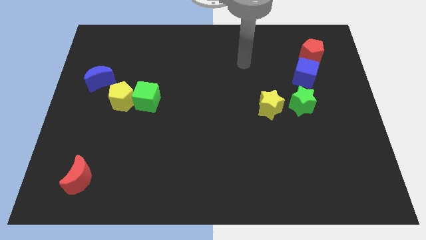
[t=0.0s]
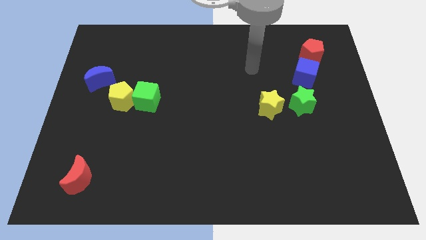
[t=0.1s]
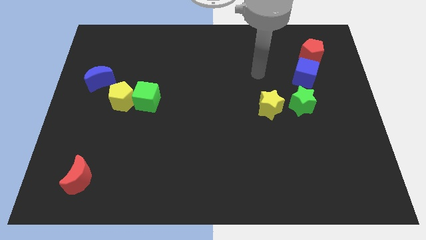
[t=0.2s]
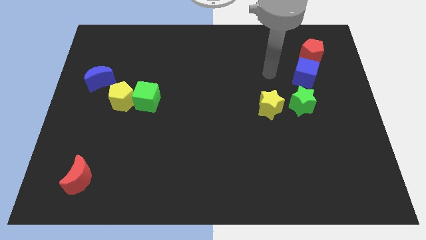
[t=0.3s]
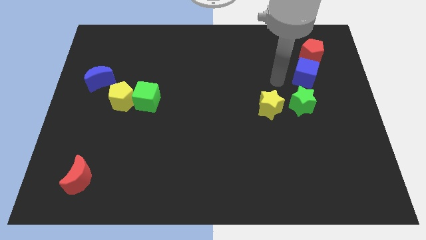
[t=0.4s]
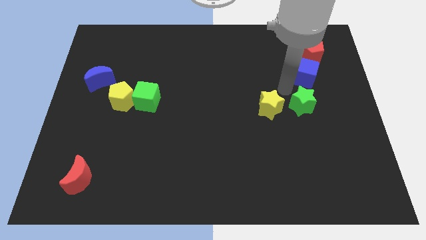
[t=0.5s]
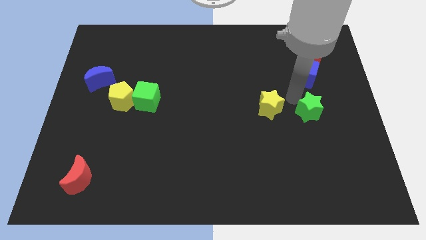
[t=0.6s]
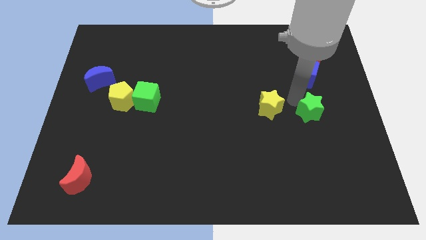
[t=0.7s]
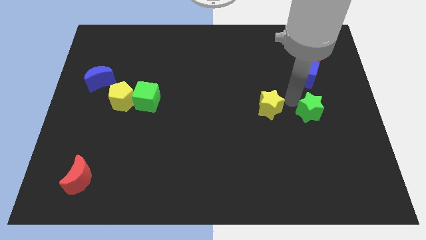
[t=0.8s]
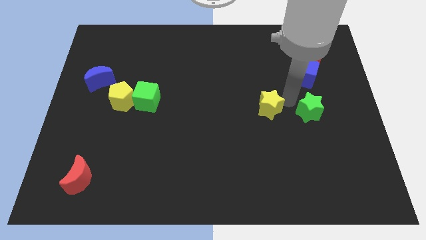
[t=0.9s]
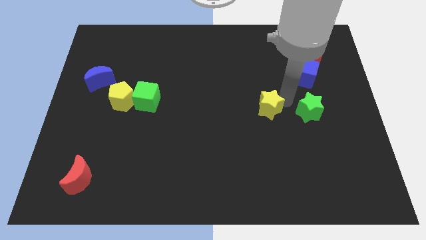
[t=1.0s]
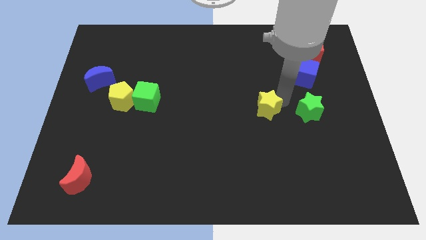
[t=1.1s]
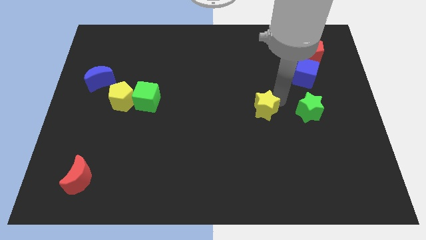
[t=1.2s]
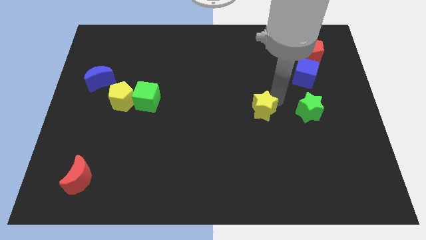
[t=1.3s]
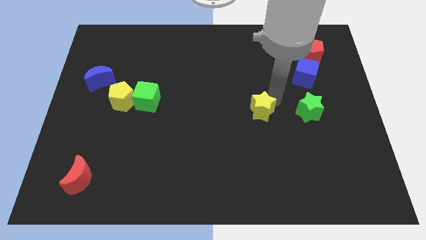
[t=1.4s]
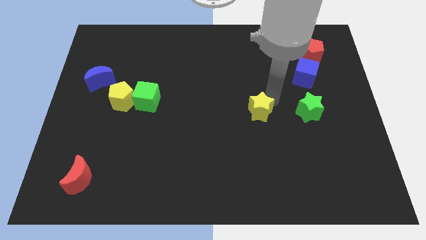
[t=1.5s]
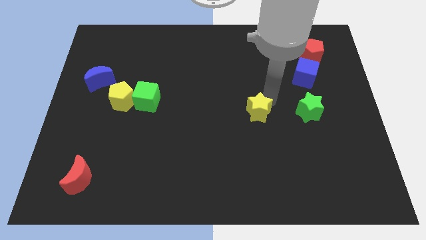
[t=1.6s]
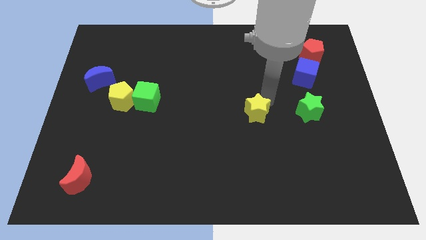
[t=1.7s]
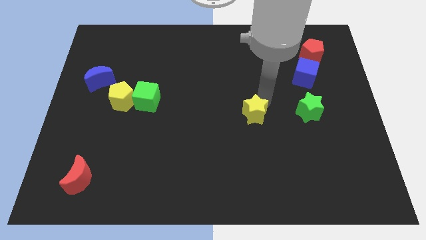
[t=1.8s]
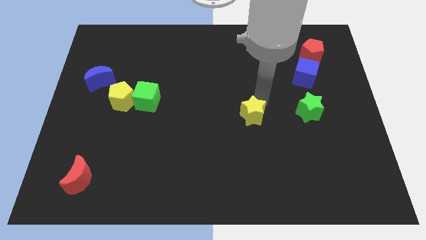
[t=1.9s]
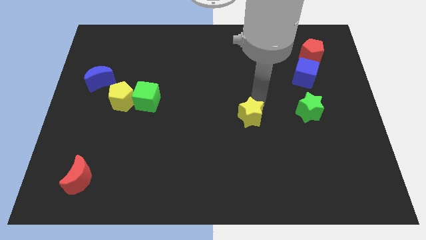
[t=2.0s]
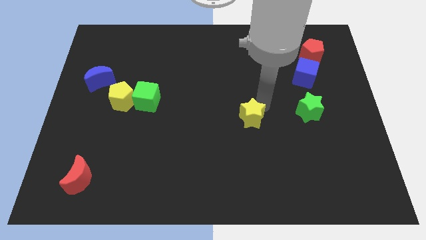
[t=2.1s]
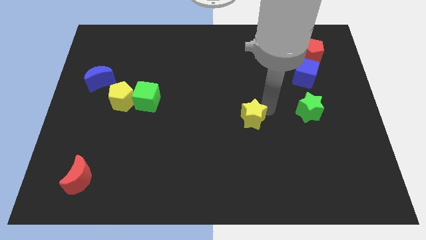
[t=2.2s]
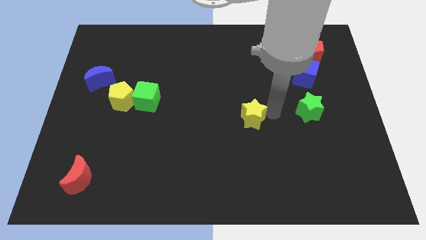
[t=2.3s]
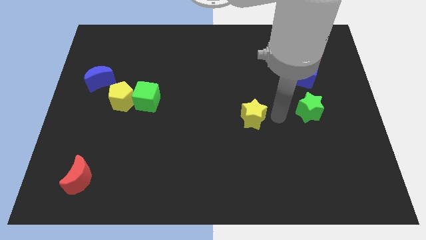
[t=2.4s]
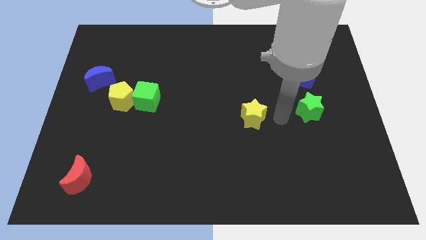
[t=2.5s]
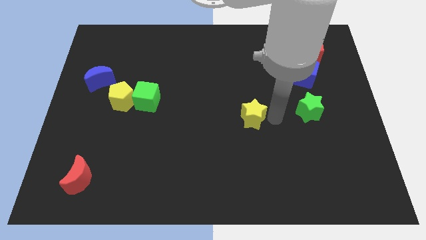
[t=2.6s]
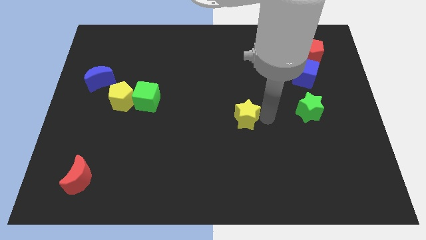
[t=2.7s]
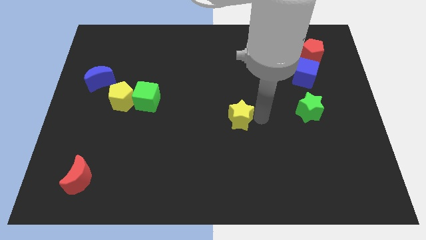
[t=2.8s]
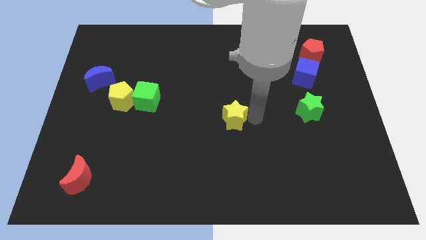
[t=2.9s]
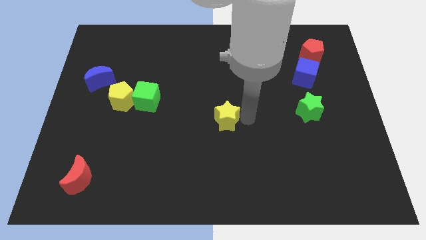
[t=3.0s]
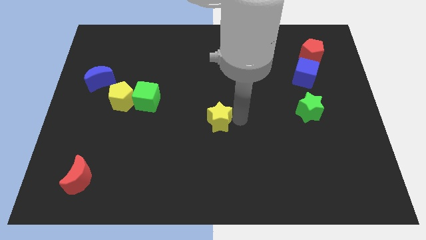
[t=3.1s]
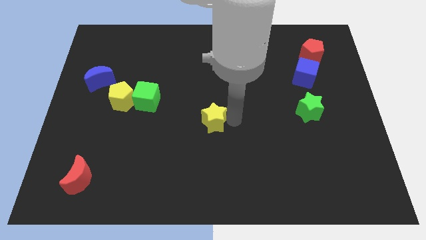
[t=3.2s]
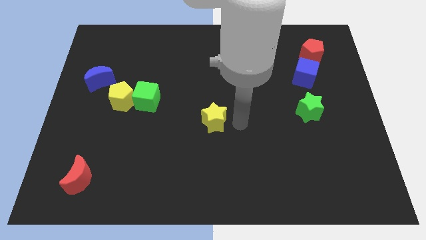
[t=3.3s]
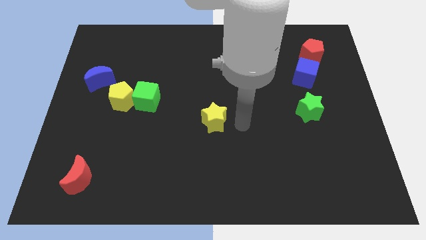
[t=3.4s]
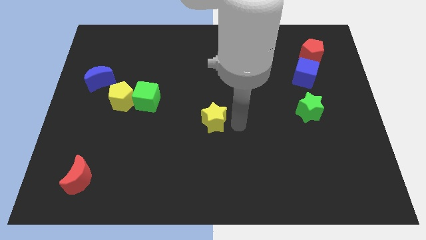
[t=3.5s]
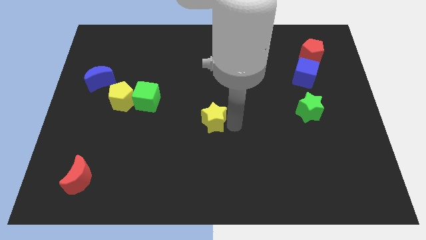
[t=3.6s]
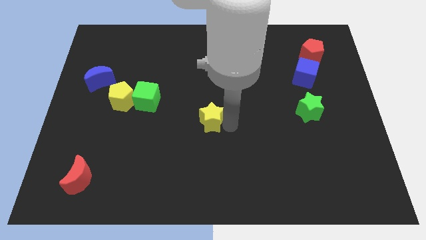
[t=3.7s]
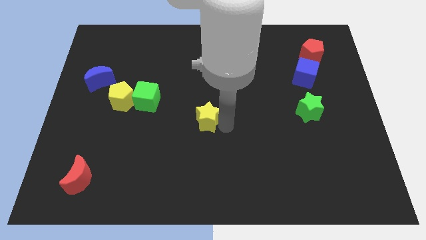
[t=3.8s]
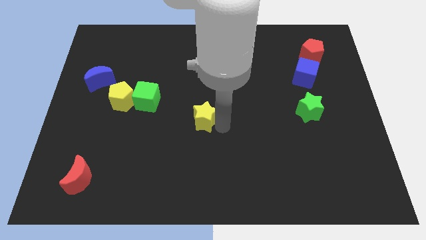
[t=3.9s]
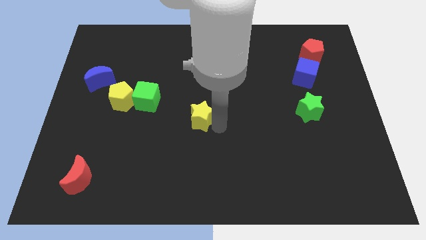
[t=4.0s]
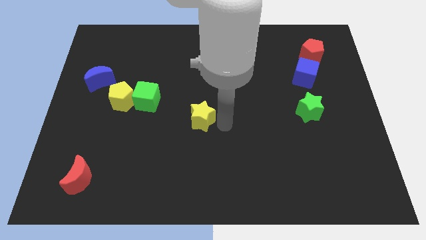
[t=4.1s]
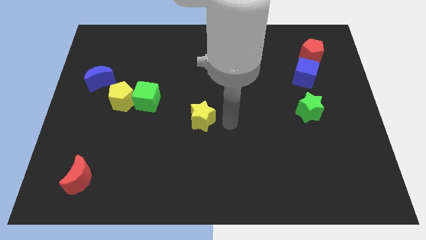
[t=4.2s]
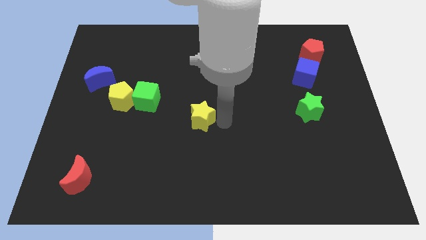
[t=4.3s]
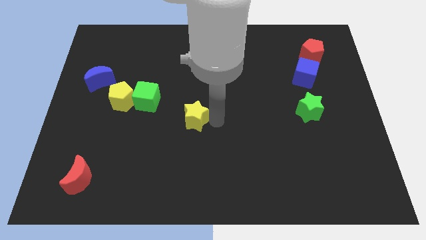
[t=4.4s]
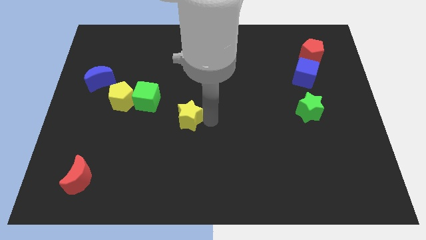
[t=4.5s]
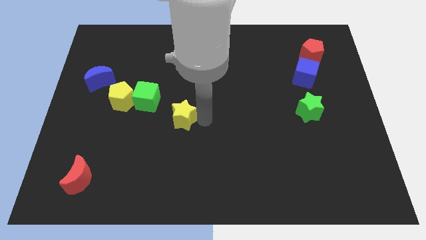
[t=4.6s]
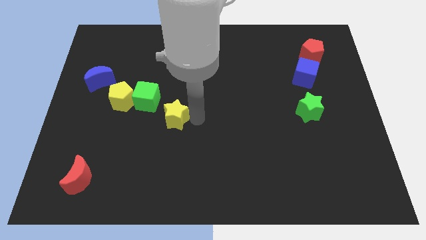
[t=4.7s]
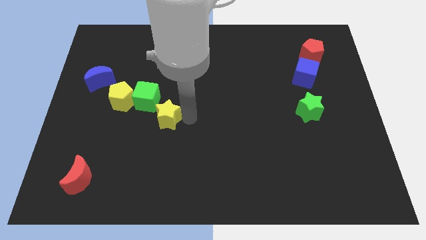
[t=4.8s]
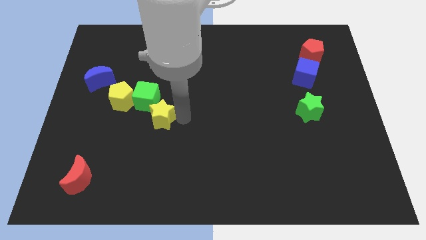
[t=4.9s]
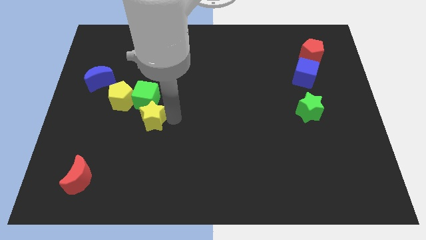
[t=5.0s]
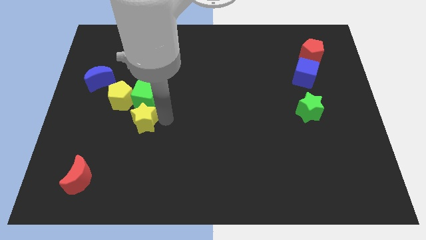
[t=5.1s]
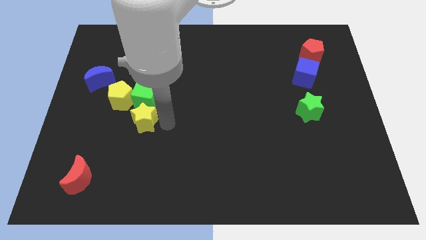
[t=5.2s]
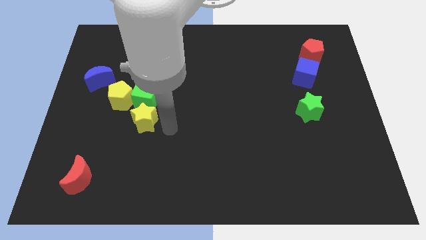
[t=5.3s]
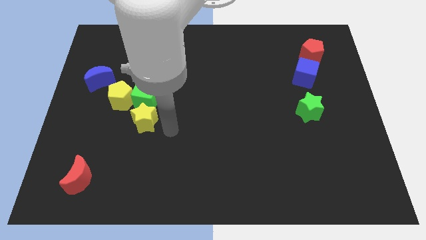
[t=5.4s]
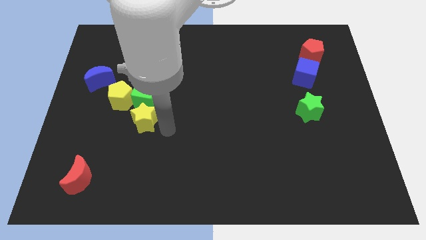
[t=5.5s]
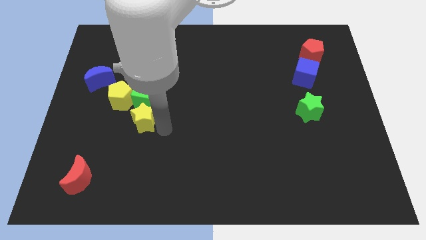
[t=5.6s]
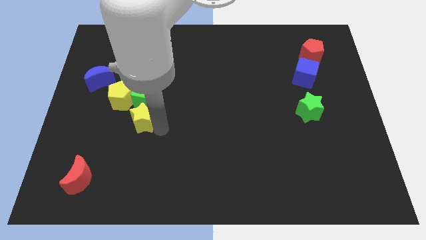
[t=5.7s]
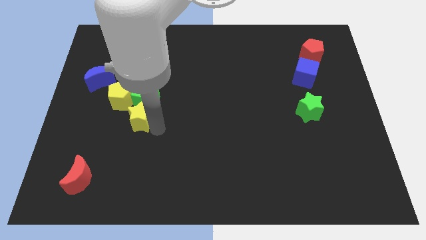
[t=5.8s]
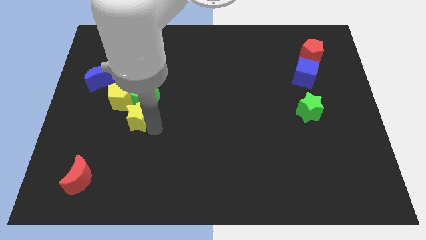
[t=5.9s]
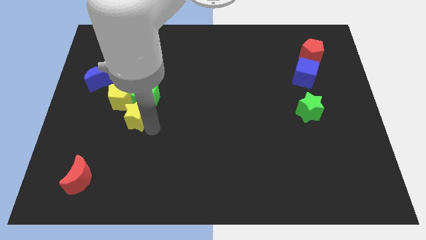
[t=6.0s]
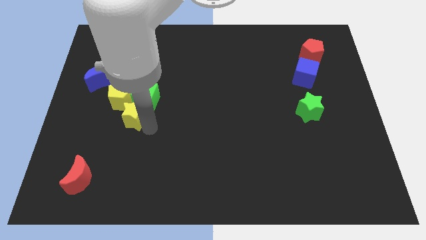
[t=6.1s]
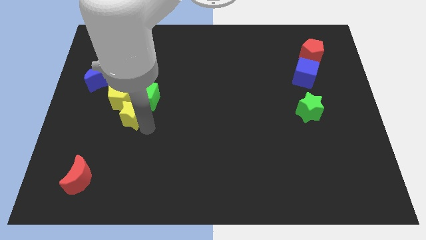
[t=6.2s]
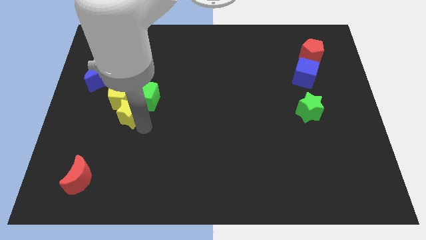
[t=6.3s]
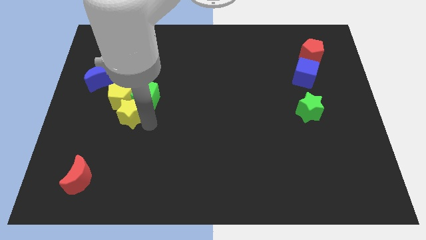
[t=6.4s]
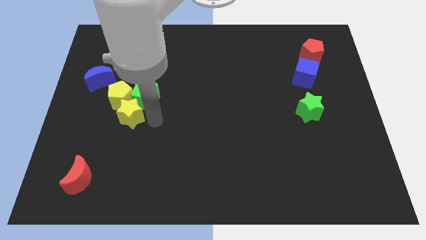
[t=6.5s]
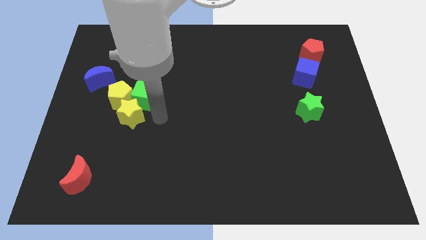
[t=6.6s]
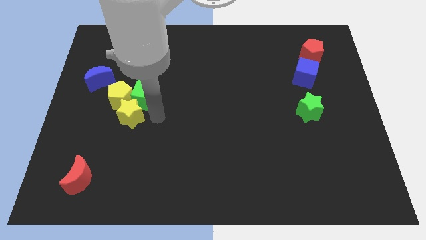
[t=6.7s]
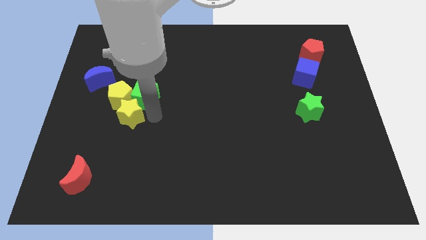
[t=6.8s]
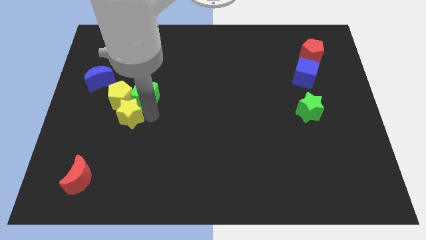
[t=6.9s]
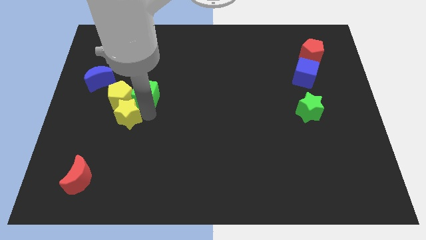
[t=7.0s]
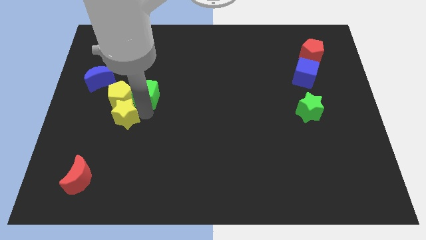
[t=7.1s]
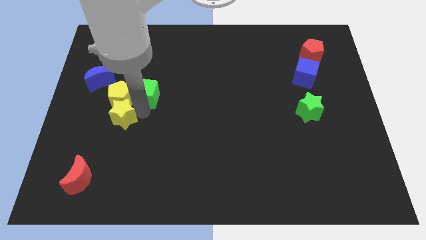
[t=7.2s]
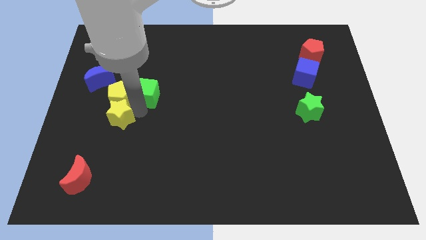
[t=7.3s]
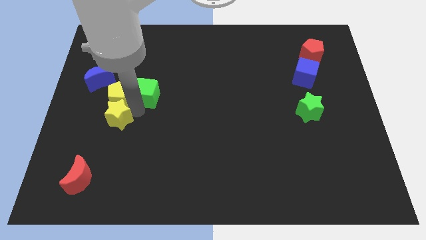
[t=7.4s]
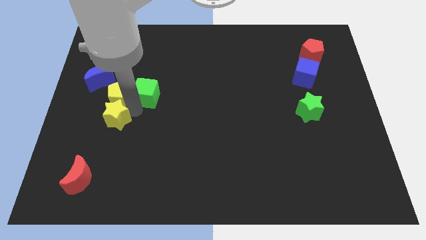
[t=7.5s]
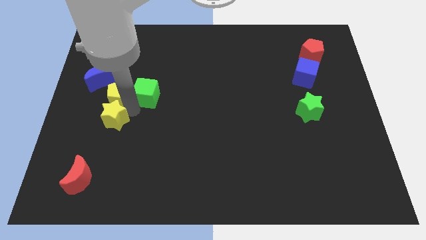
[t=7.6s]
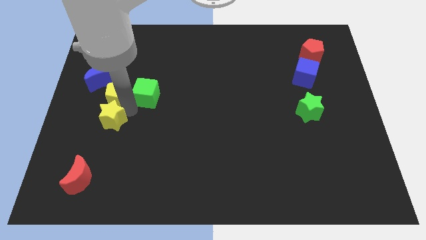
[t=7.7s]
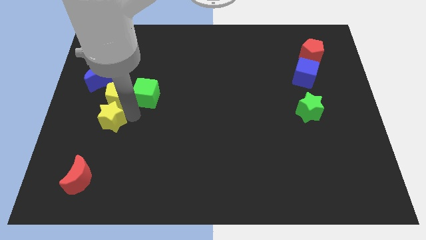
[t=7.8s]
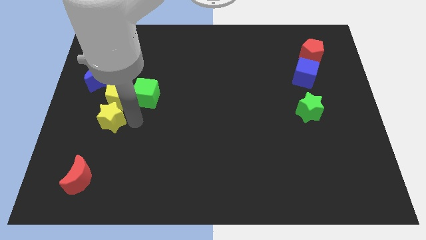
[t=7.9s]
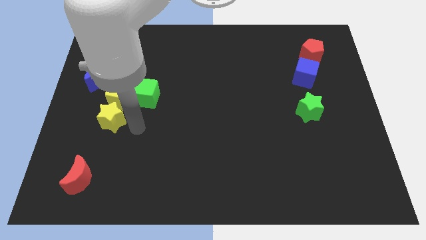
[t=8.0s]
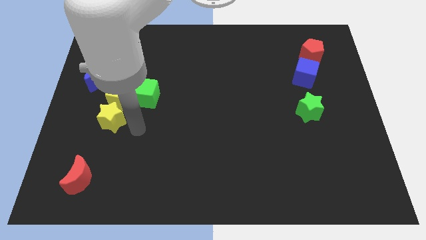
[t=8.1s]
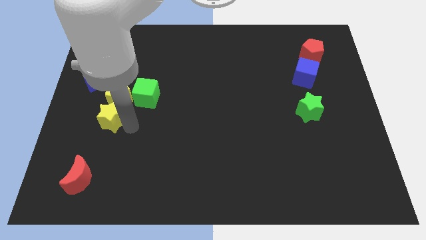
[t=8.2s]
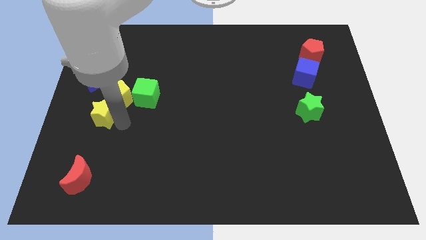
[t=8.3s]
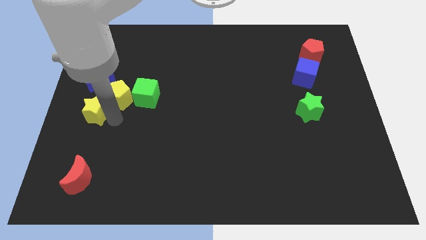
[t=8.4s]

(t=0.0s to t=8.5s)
move the yellow star to the left side
